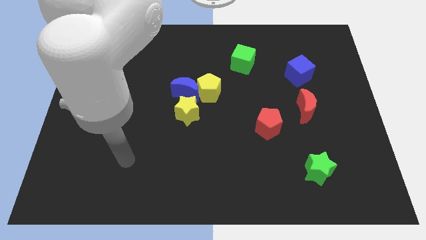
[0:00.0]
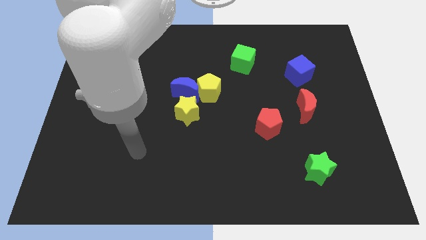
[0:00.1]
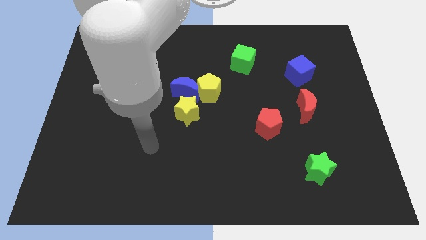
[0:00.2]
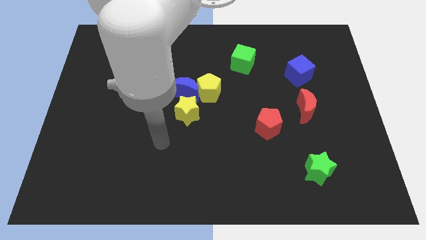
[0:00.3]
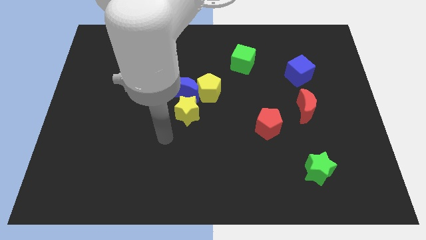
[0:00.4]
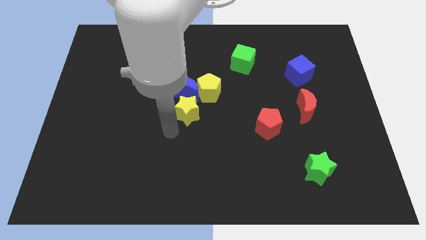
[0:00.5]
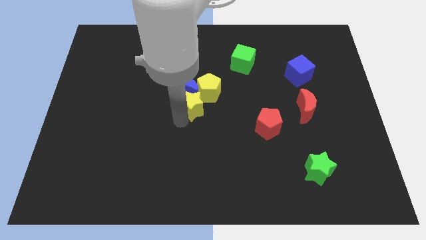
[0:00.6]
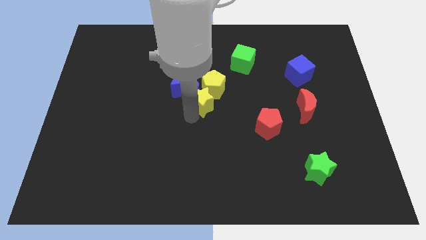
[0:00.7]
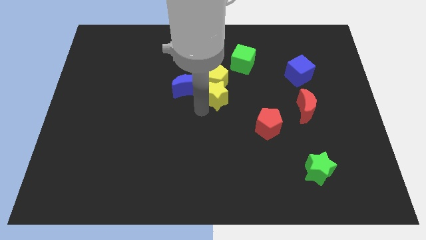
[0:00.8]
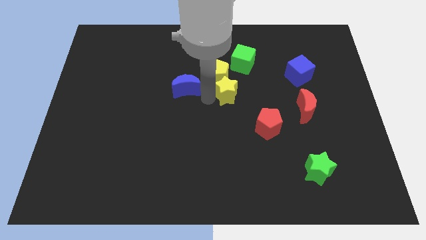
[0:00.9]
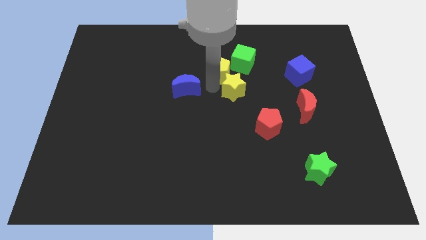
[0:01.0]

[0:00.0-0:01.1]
pull the blue moon apart from the yellow pentagon and yellow star

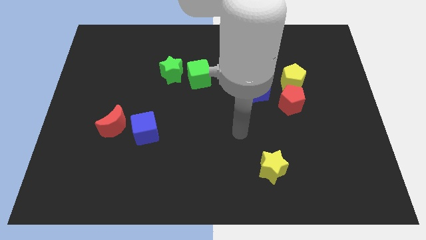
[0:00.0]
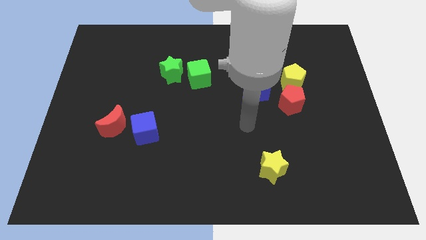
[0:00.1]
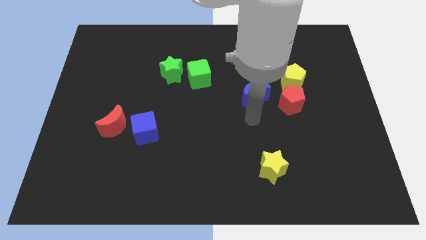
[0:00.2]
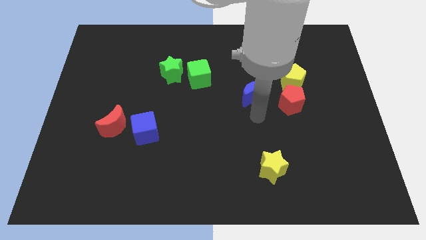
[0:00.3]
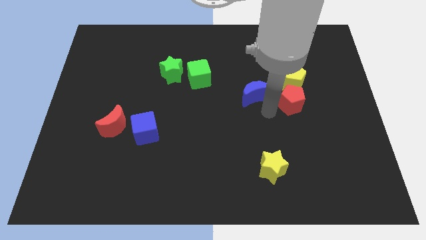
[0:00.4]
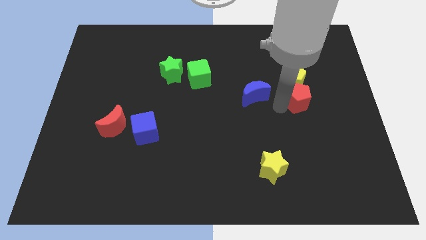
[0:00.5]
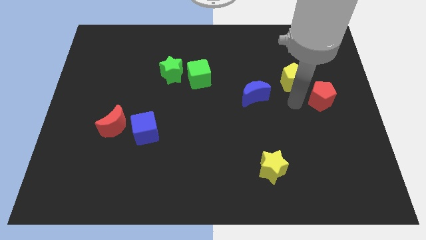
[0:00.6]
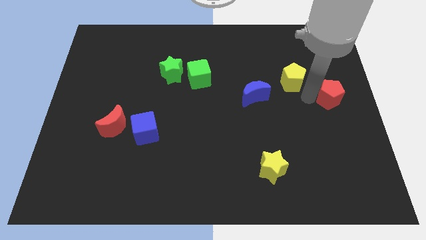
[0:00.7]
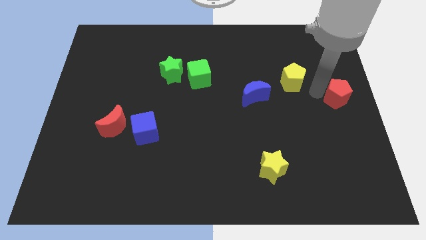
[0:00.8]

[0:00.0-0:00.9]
move the yellow pentagon away from the red pentagon

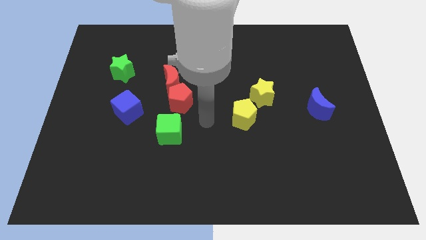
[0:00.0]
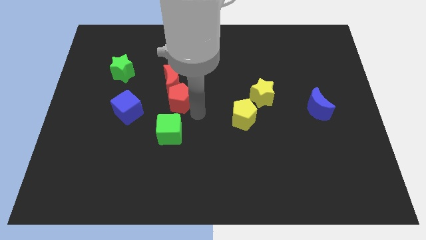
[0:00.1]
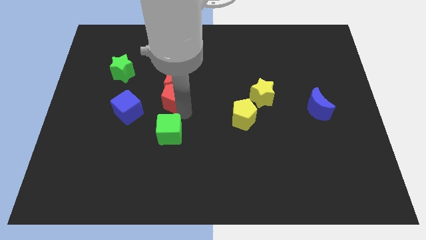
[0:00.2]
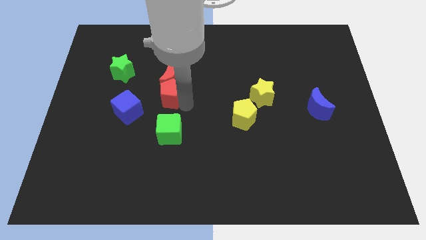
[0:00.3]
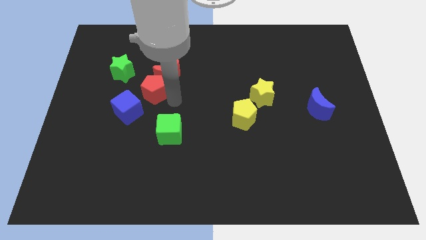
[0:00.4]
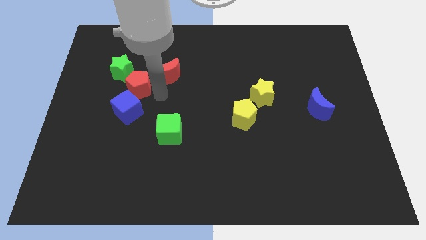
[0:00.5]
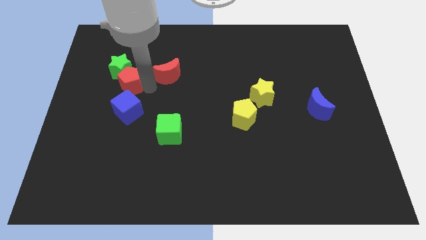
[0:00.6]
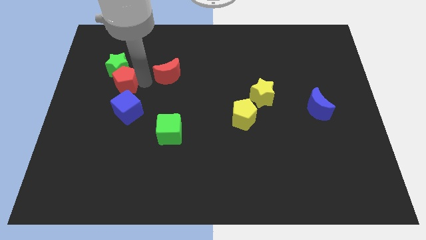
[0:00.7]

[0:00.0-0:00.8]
pull the red moon apart from the red pentagon

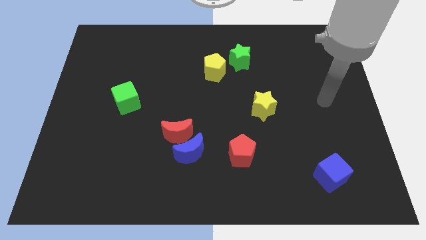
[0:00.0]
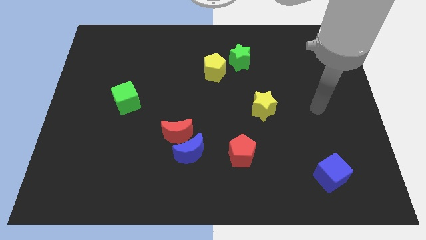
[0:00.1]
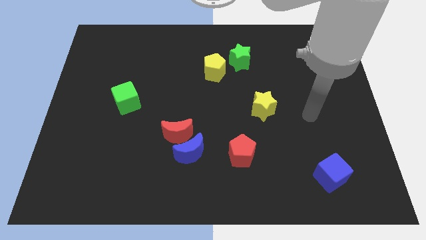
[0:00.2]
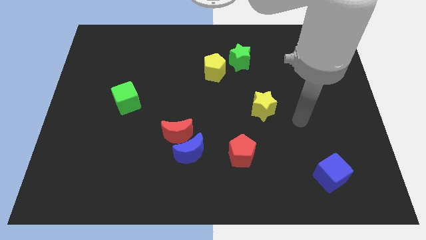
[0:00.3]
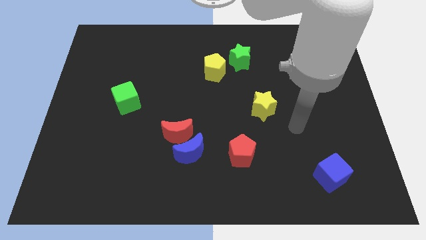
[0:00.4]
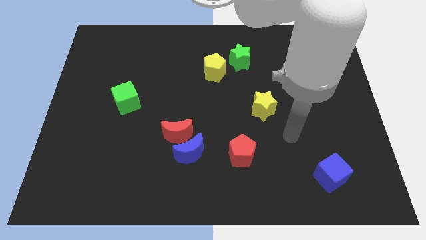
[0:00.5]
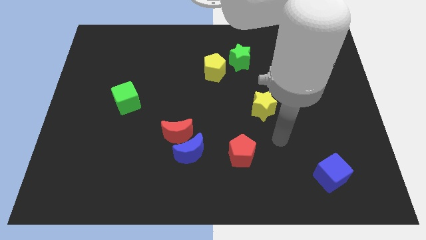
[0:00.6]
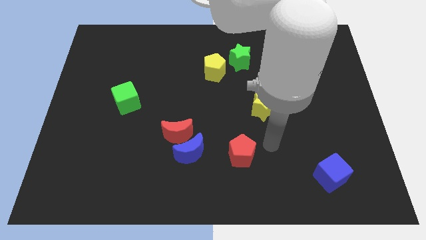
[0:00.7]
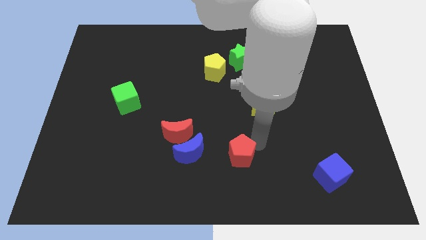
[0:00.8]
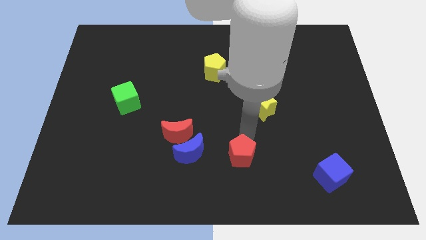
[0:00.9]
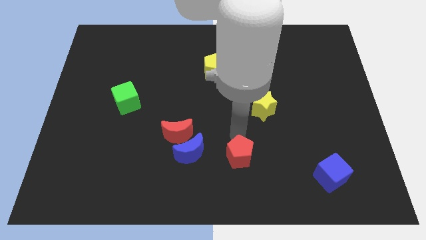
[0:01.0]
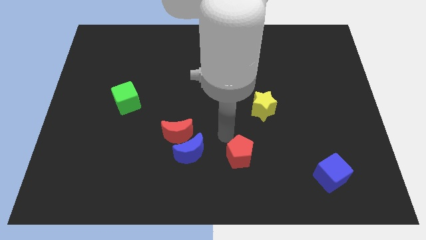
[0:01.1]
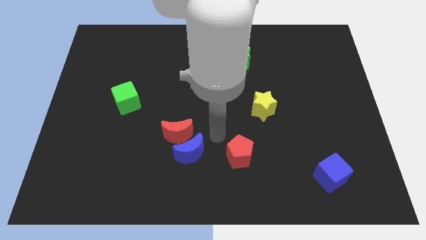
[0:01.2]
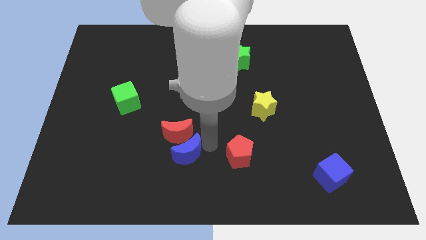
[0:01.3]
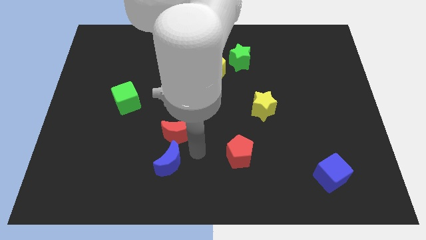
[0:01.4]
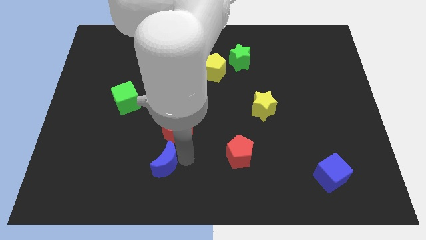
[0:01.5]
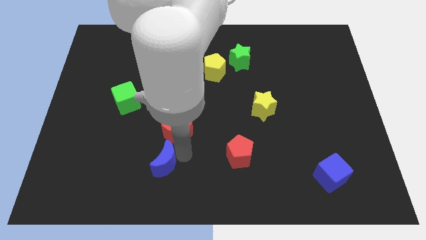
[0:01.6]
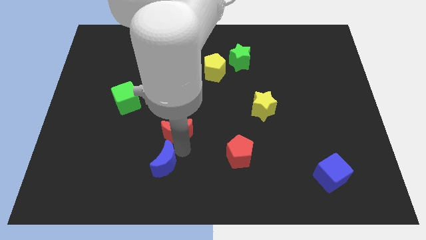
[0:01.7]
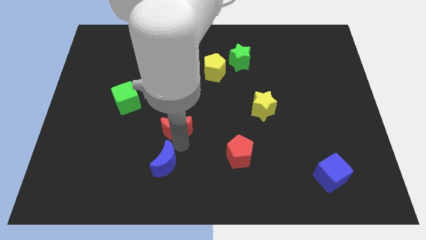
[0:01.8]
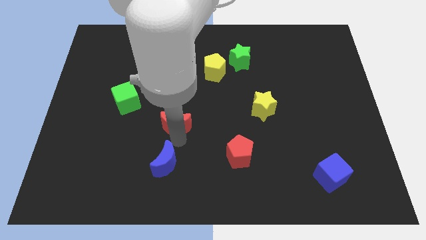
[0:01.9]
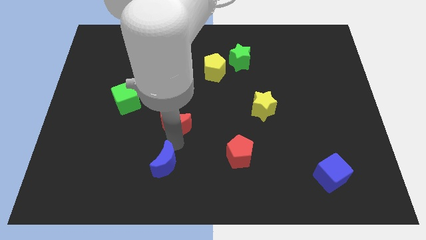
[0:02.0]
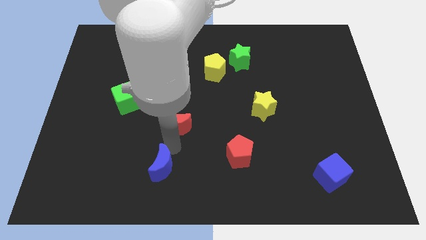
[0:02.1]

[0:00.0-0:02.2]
pull the red moon apart from the blue moon

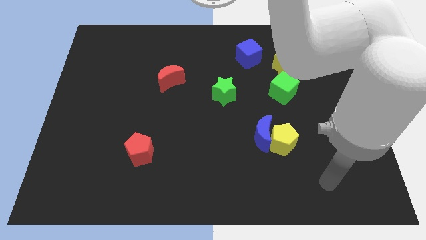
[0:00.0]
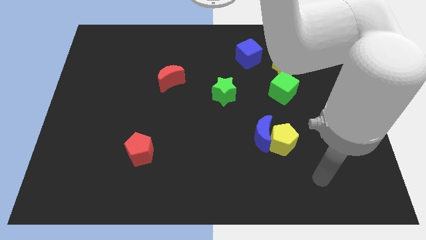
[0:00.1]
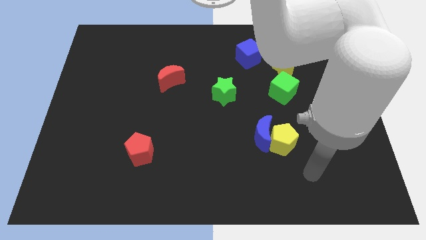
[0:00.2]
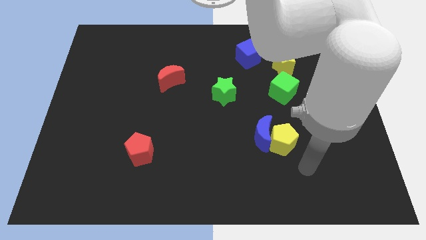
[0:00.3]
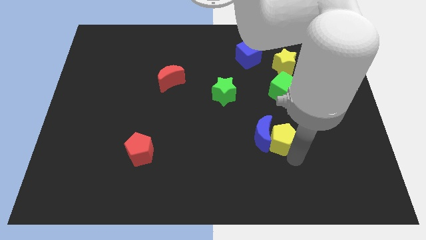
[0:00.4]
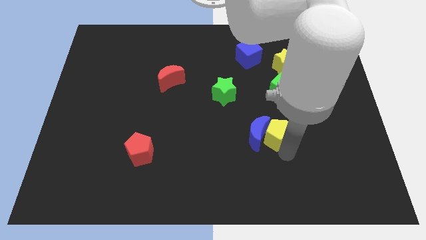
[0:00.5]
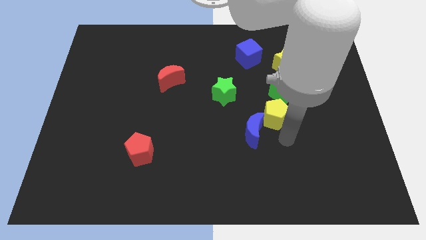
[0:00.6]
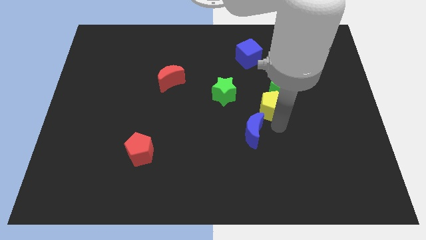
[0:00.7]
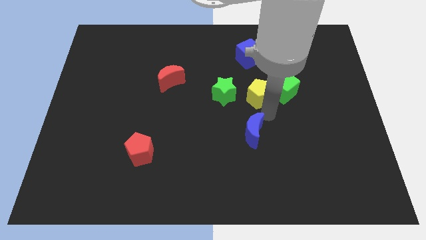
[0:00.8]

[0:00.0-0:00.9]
separate the blue moon from the yellow pentagon

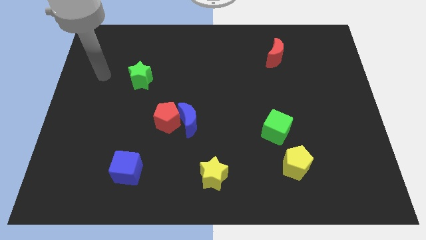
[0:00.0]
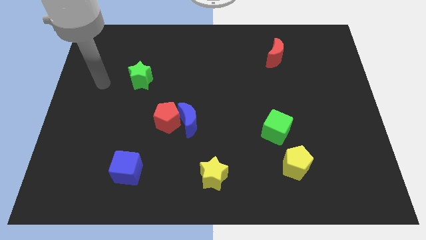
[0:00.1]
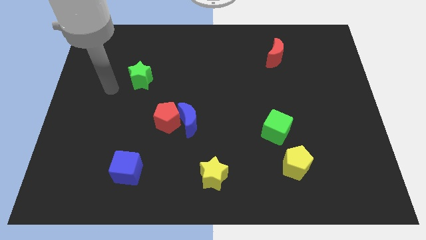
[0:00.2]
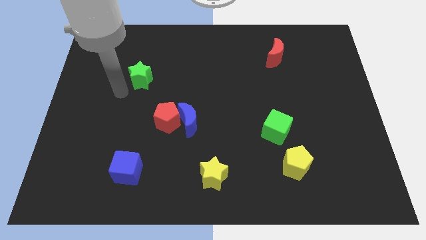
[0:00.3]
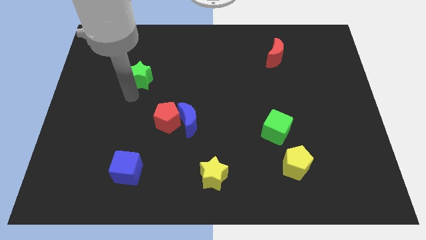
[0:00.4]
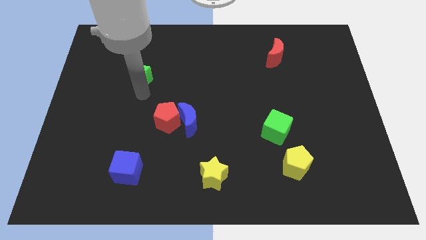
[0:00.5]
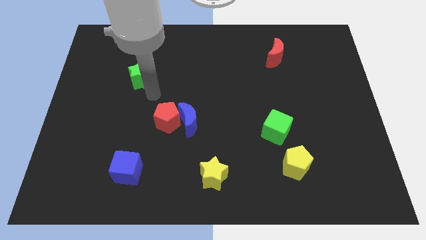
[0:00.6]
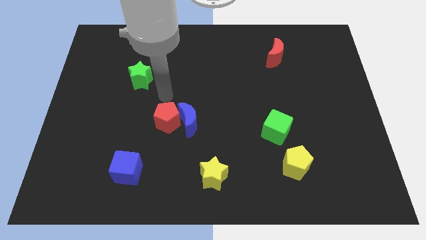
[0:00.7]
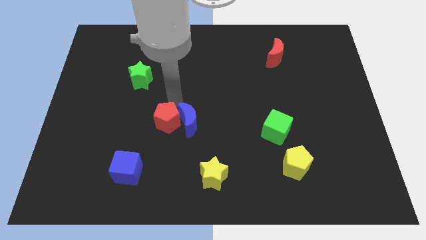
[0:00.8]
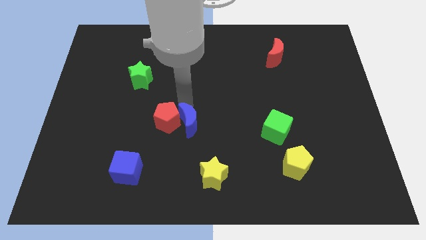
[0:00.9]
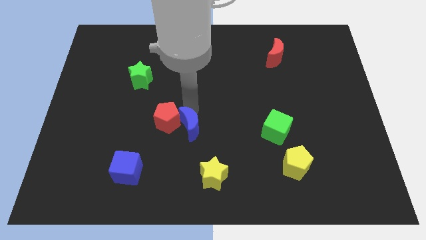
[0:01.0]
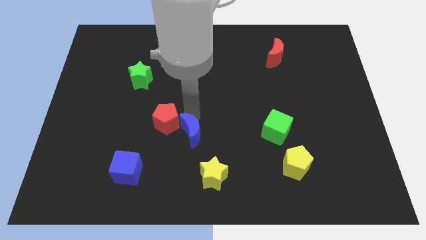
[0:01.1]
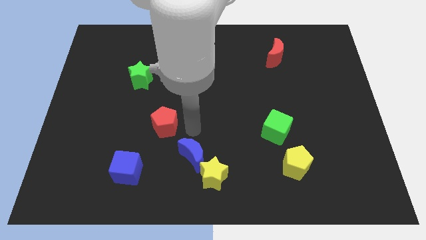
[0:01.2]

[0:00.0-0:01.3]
pull the red pentagon apart from the blue moon

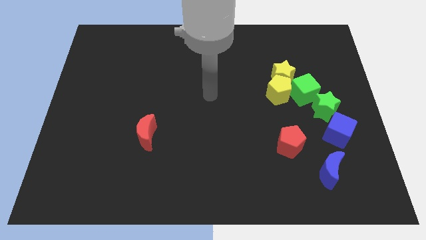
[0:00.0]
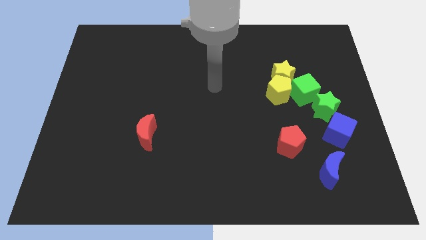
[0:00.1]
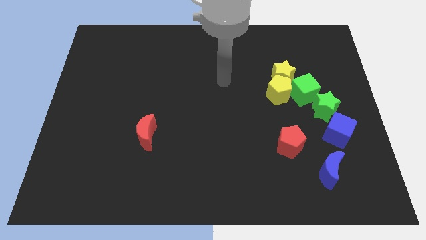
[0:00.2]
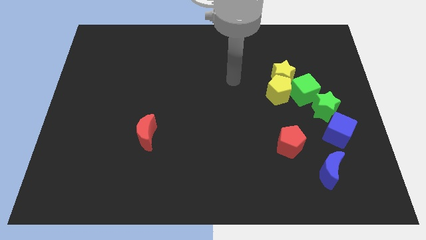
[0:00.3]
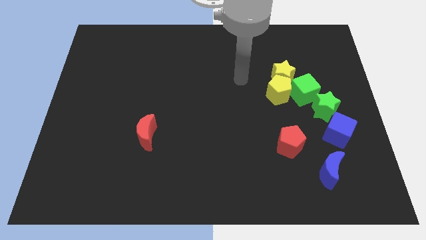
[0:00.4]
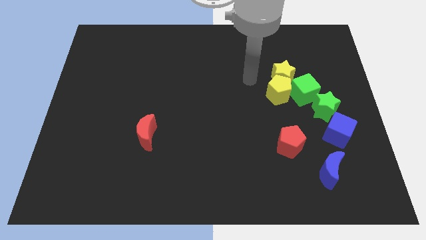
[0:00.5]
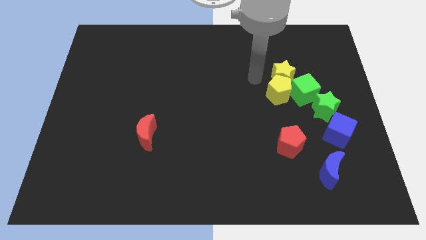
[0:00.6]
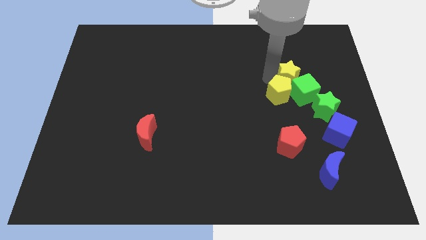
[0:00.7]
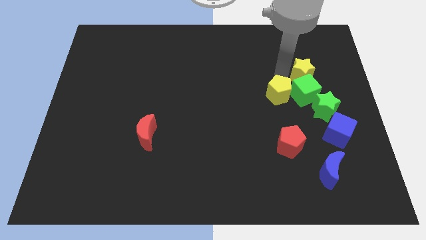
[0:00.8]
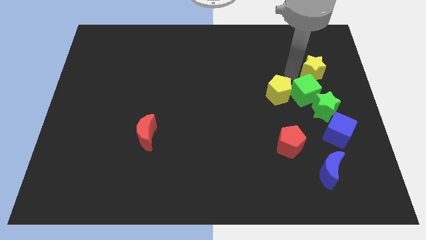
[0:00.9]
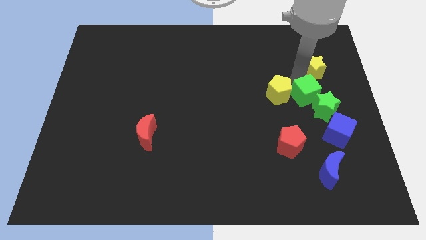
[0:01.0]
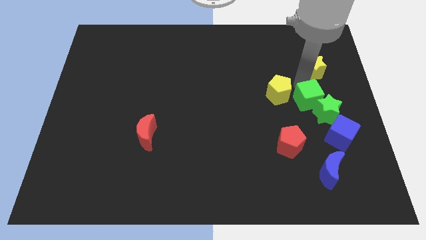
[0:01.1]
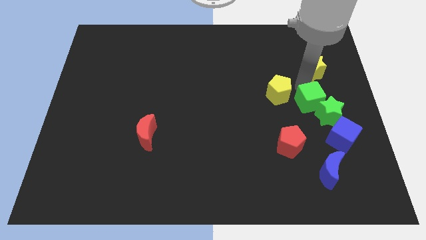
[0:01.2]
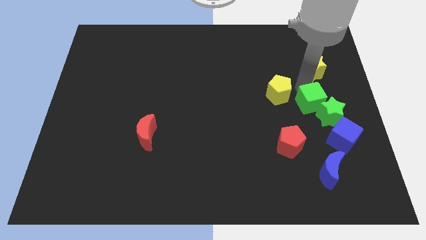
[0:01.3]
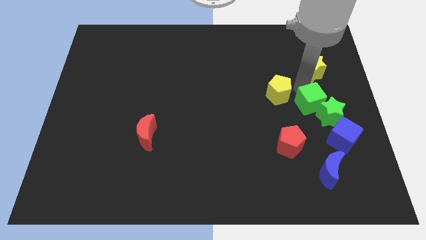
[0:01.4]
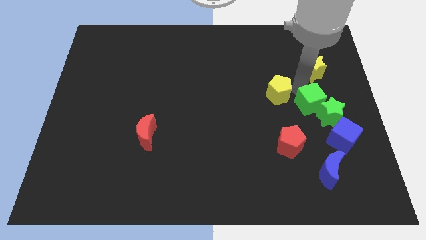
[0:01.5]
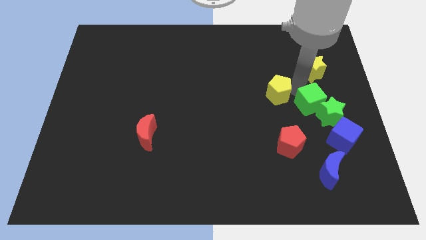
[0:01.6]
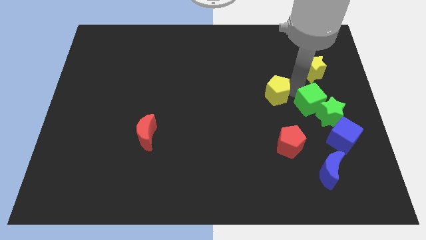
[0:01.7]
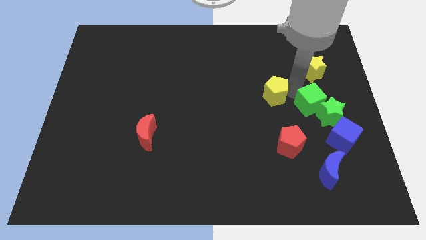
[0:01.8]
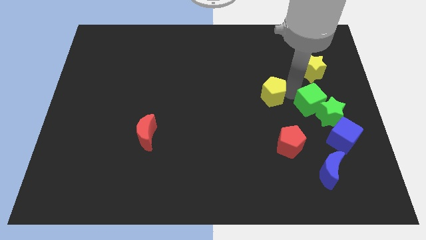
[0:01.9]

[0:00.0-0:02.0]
pull the yellow pentagon apart from the yellow star and green cube

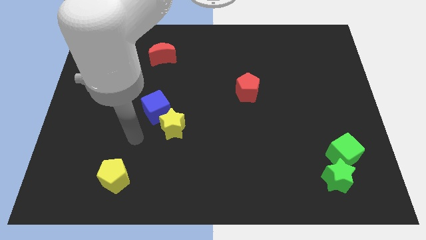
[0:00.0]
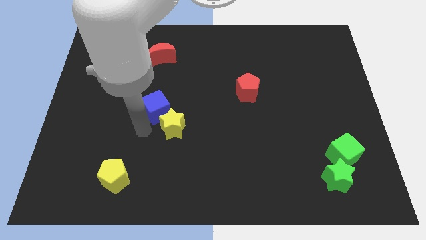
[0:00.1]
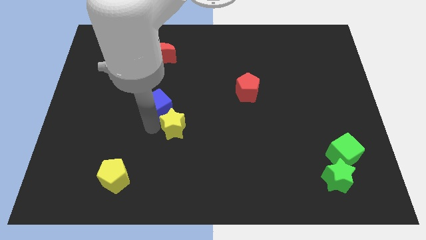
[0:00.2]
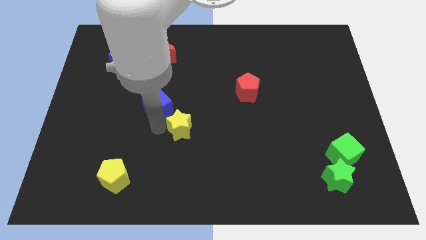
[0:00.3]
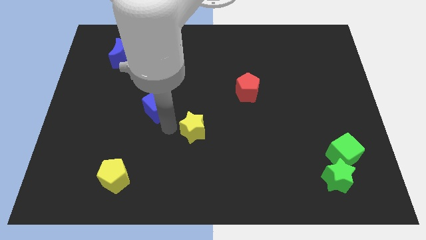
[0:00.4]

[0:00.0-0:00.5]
separate the blue cube from the yellow star
